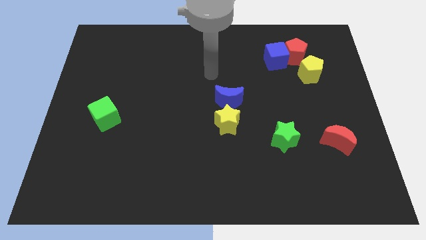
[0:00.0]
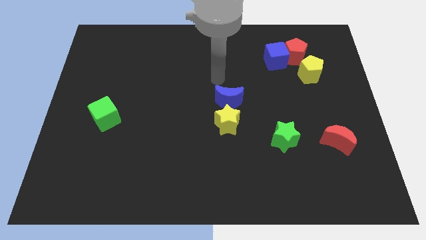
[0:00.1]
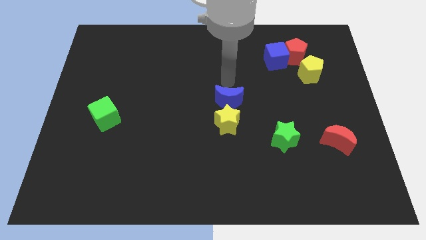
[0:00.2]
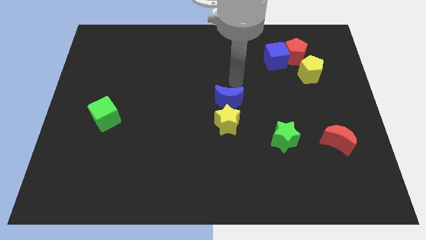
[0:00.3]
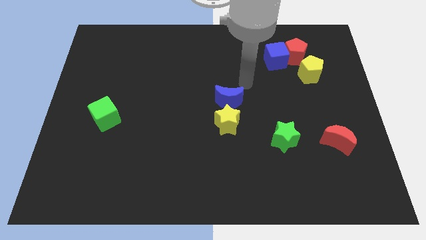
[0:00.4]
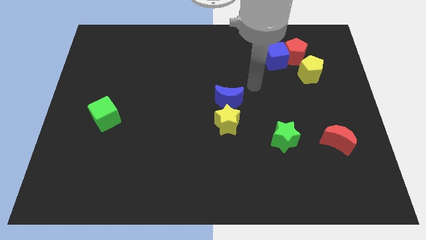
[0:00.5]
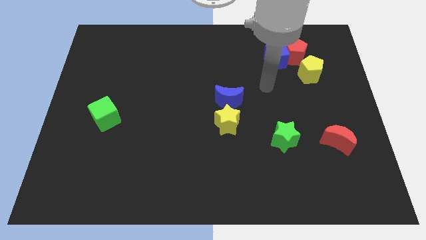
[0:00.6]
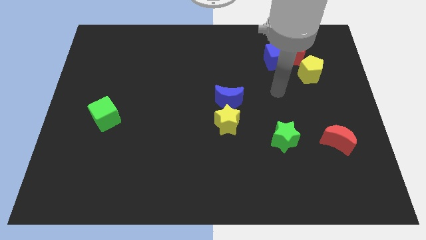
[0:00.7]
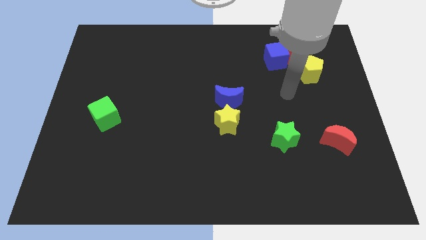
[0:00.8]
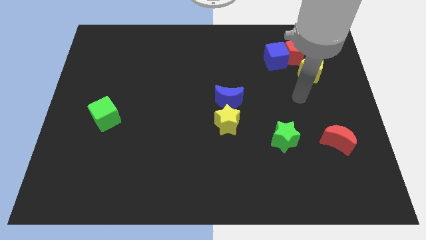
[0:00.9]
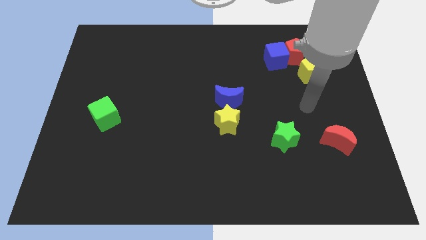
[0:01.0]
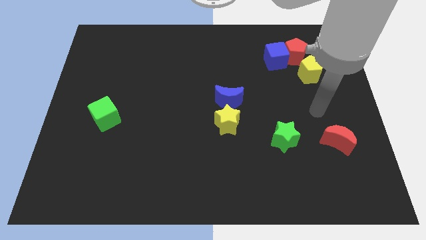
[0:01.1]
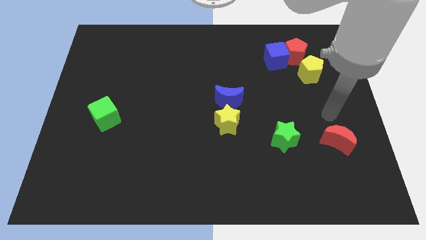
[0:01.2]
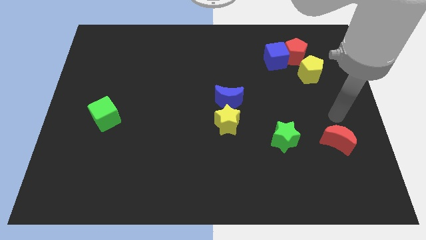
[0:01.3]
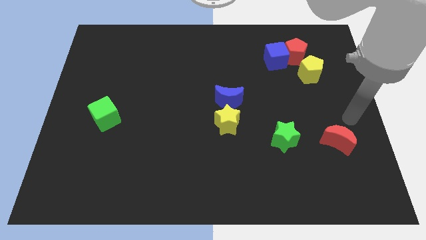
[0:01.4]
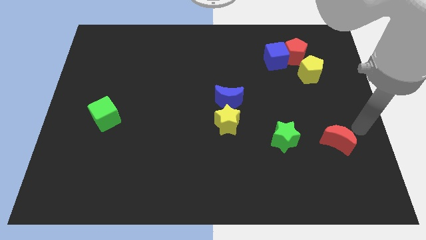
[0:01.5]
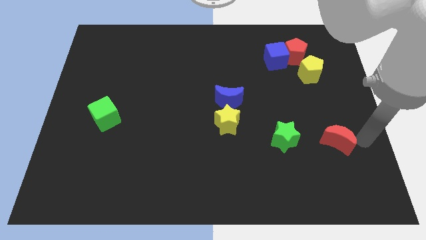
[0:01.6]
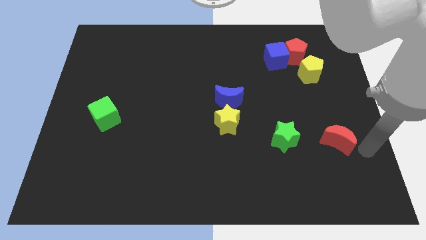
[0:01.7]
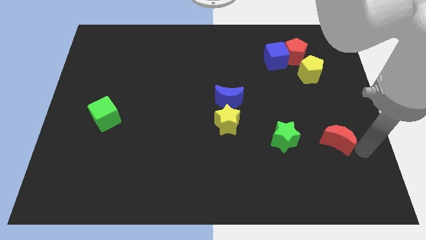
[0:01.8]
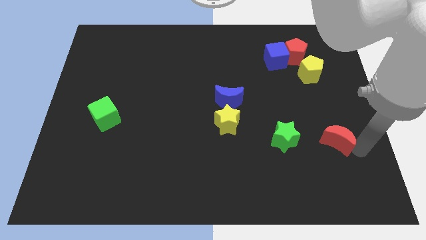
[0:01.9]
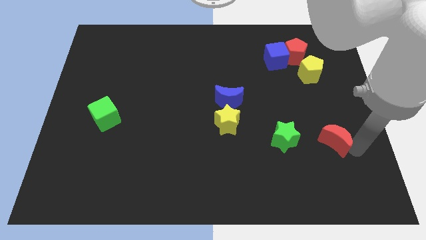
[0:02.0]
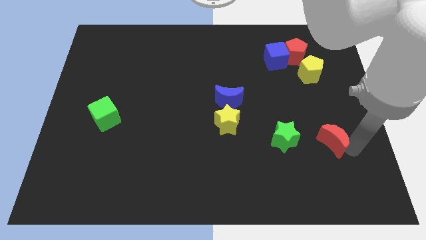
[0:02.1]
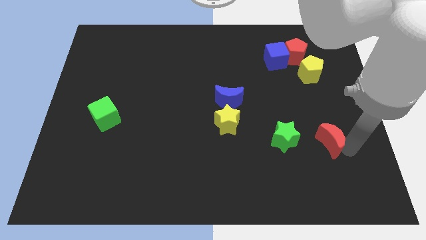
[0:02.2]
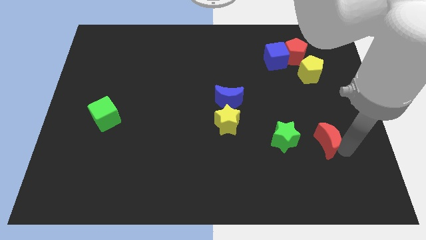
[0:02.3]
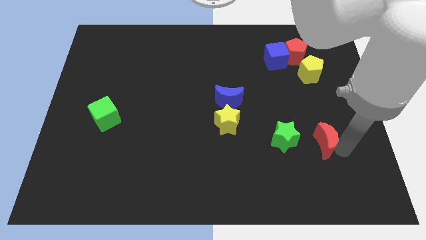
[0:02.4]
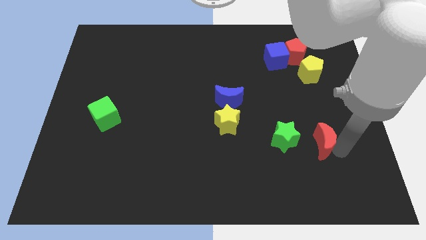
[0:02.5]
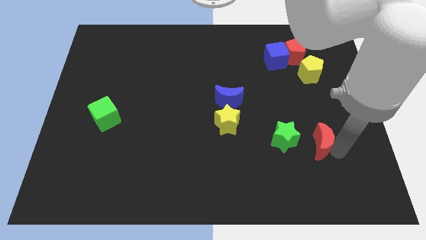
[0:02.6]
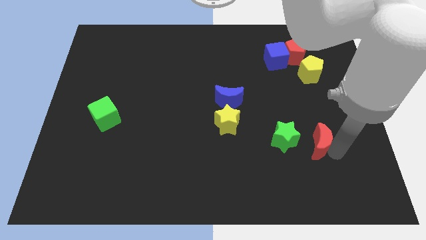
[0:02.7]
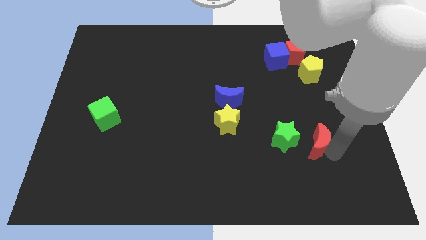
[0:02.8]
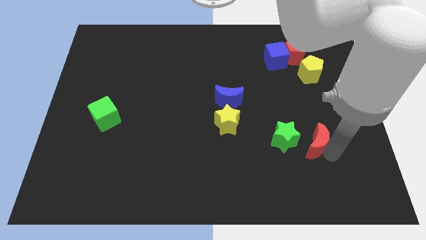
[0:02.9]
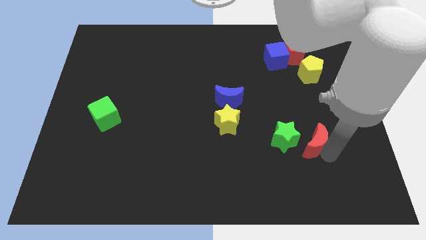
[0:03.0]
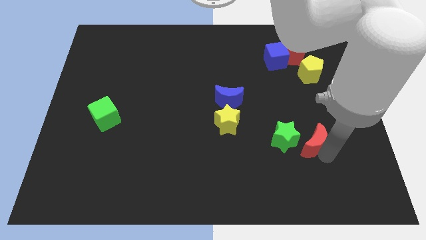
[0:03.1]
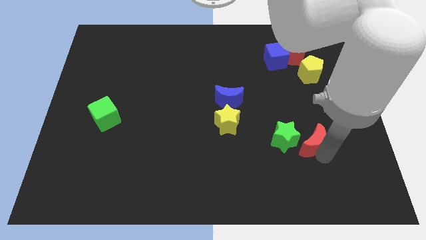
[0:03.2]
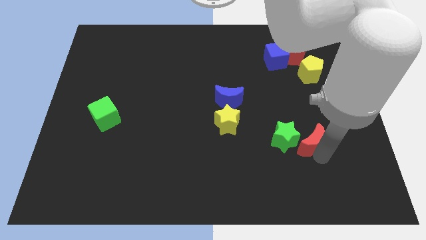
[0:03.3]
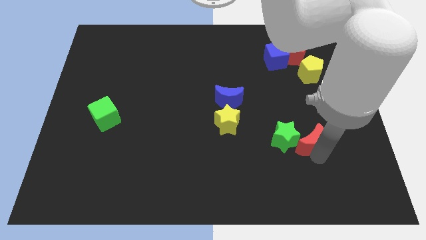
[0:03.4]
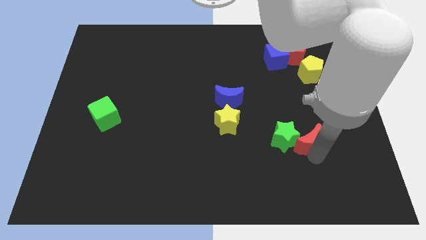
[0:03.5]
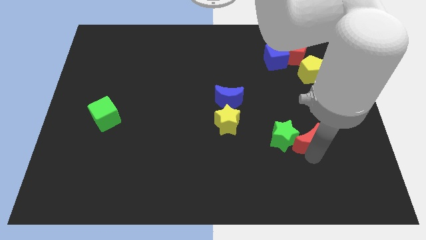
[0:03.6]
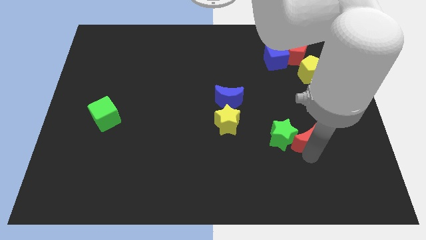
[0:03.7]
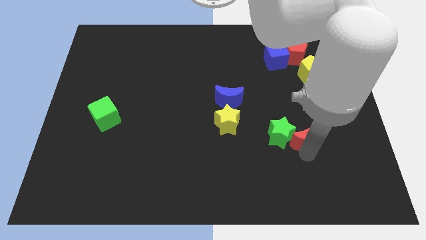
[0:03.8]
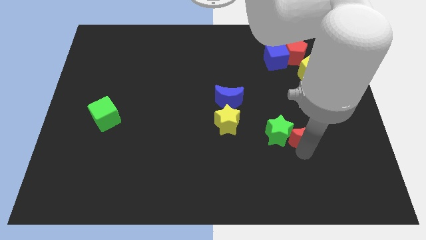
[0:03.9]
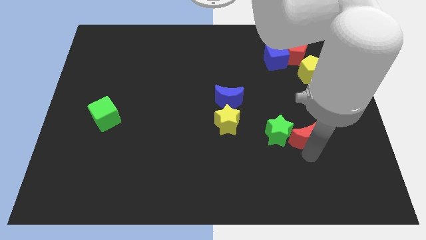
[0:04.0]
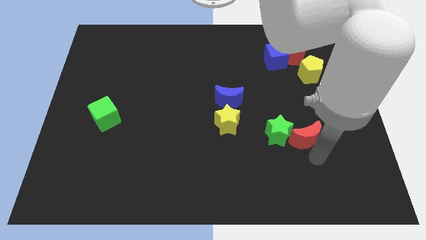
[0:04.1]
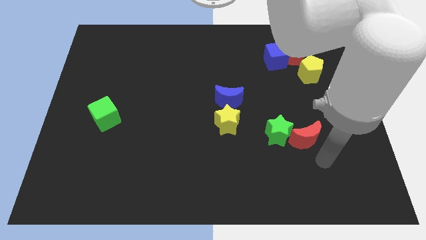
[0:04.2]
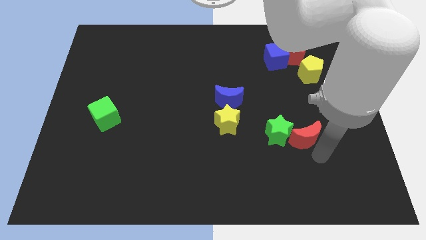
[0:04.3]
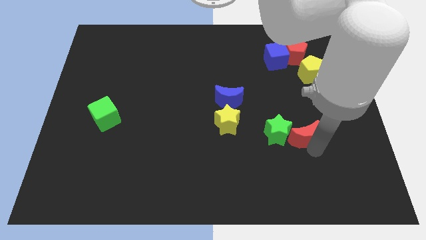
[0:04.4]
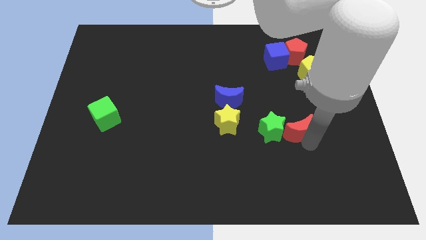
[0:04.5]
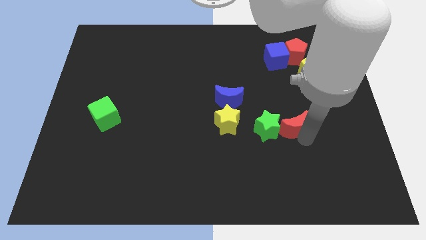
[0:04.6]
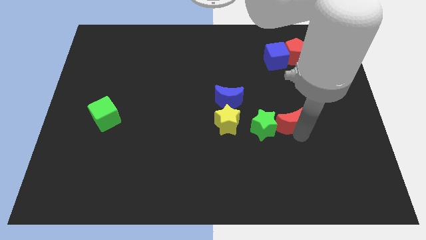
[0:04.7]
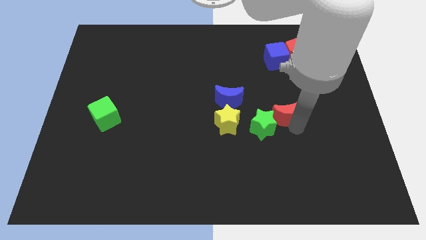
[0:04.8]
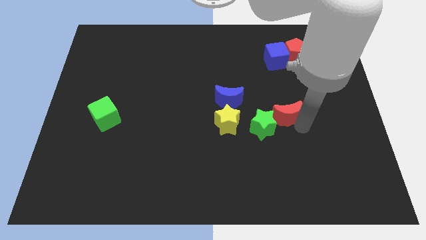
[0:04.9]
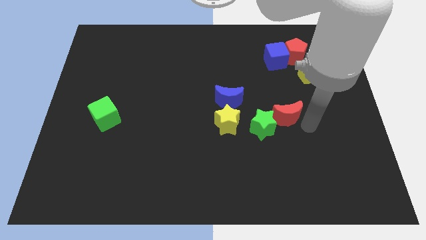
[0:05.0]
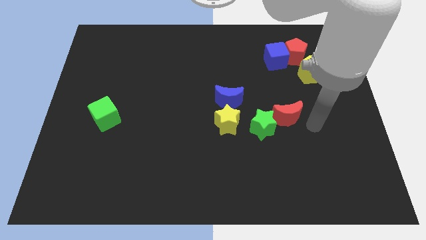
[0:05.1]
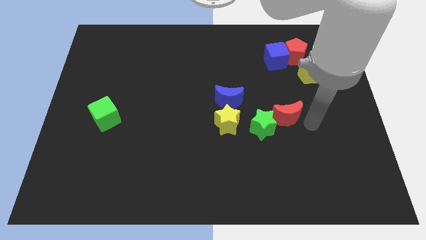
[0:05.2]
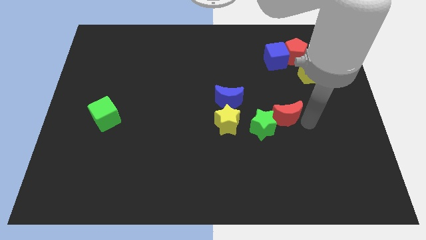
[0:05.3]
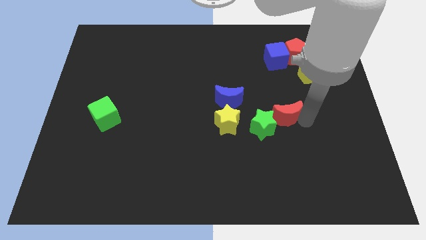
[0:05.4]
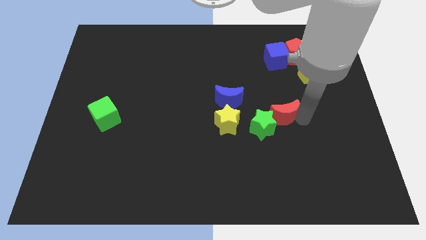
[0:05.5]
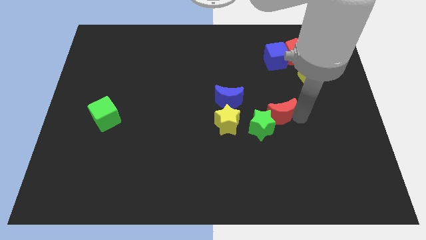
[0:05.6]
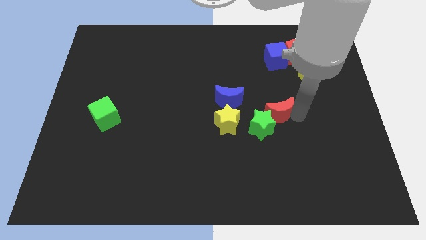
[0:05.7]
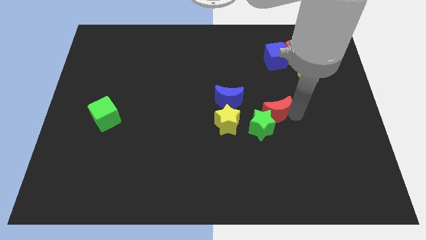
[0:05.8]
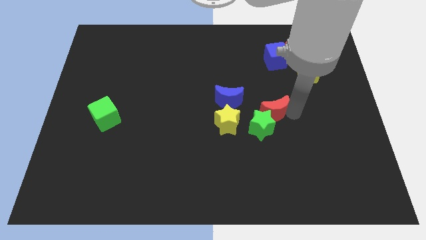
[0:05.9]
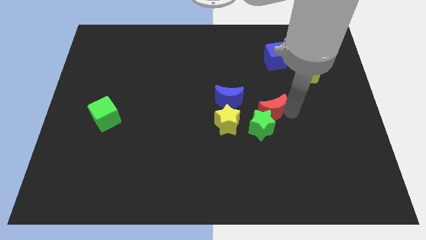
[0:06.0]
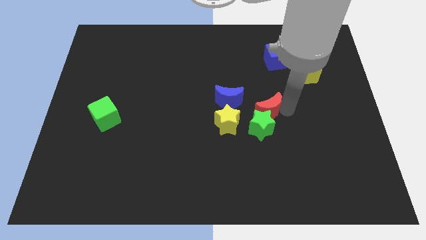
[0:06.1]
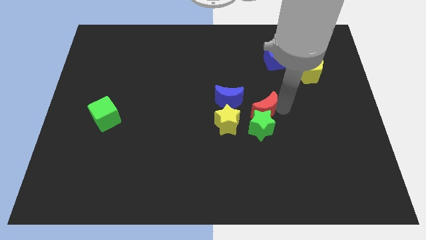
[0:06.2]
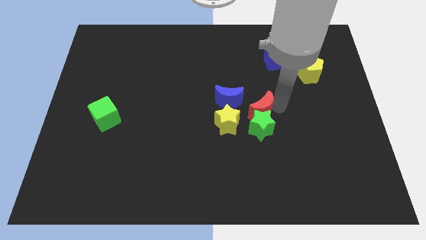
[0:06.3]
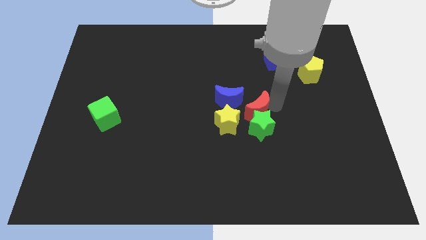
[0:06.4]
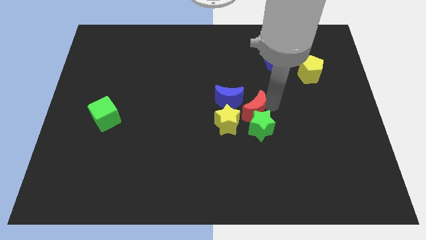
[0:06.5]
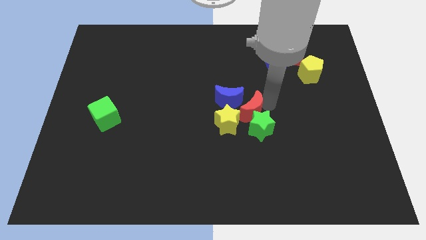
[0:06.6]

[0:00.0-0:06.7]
put the red moon to the blue moon

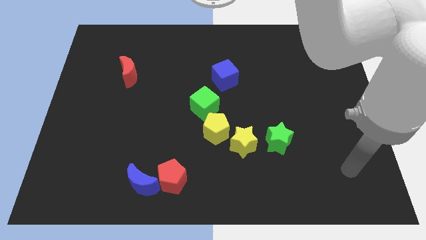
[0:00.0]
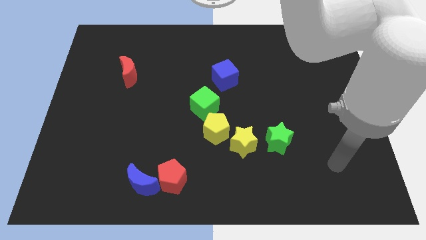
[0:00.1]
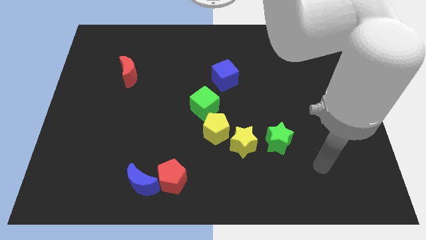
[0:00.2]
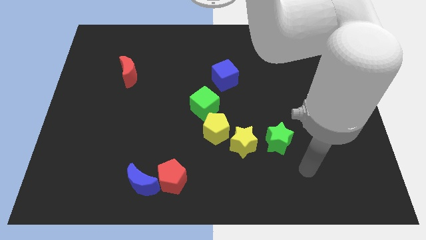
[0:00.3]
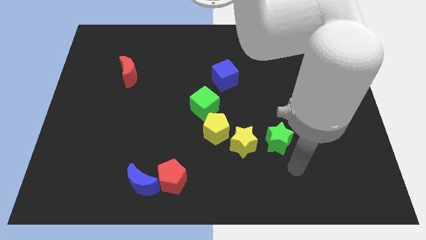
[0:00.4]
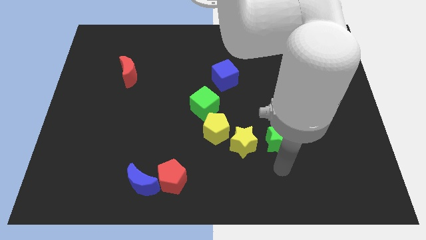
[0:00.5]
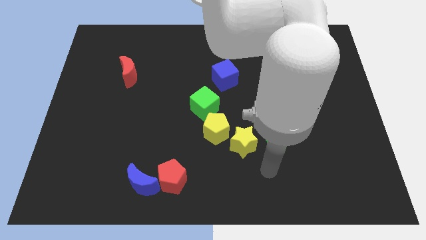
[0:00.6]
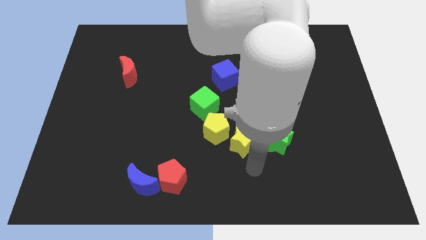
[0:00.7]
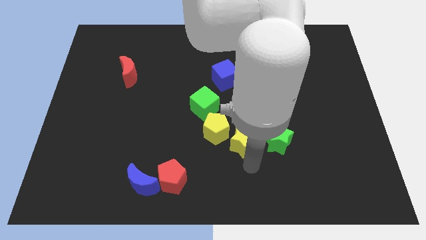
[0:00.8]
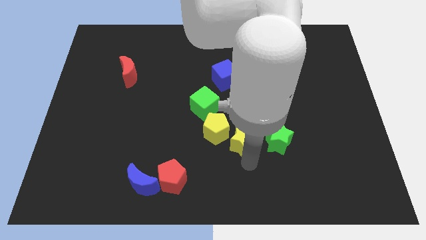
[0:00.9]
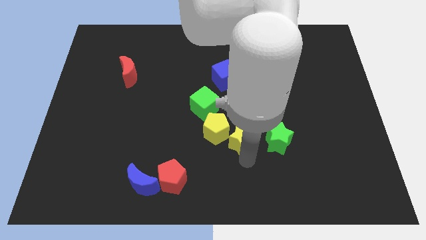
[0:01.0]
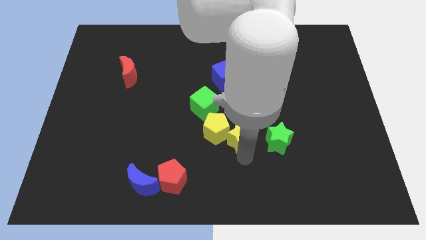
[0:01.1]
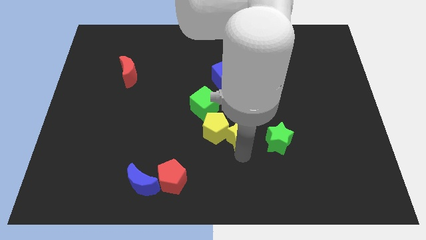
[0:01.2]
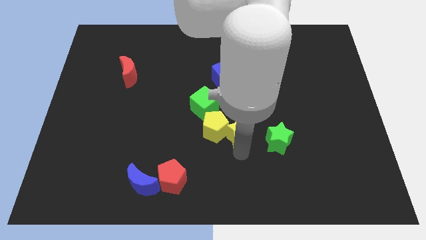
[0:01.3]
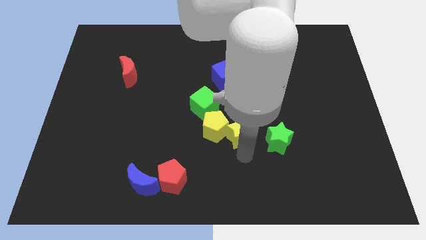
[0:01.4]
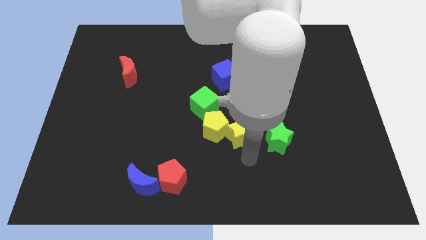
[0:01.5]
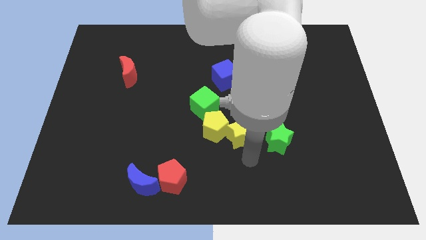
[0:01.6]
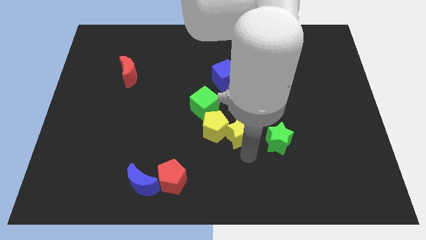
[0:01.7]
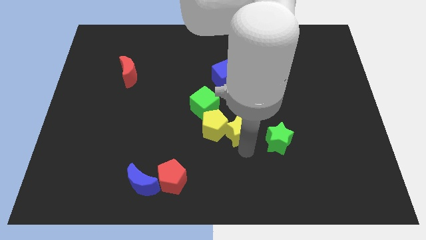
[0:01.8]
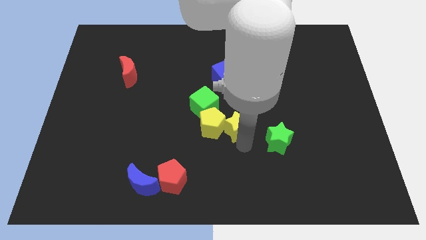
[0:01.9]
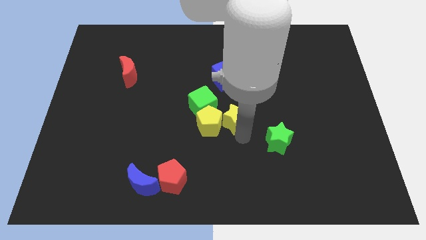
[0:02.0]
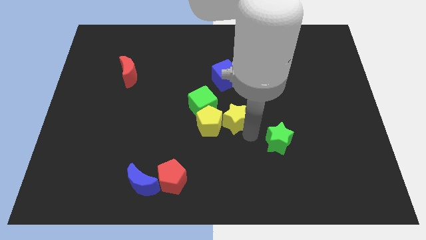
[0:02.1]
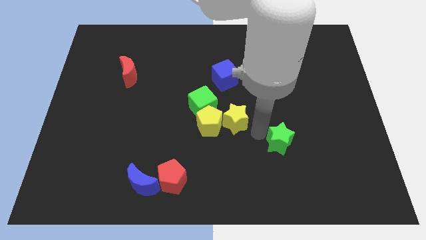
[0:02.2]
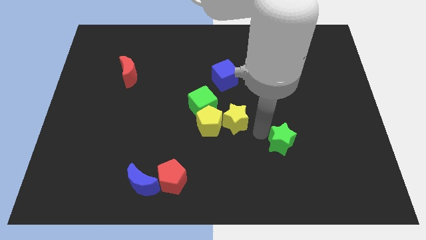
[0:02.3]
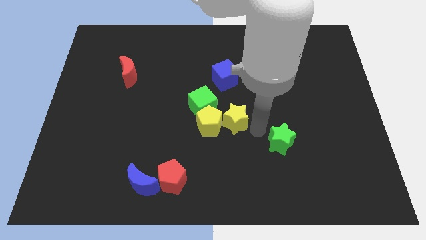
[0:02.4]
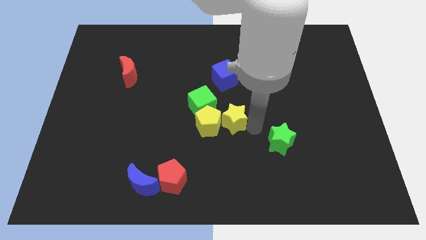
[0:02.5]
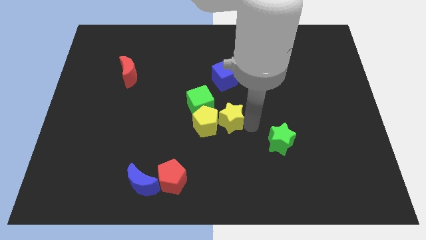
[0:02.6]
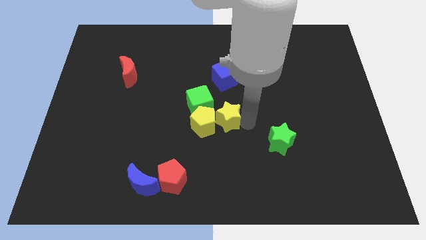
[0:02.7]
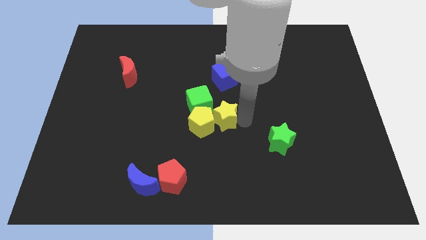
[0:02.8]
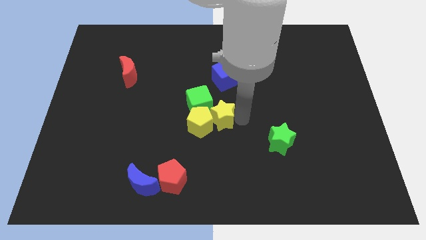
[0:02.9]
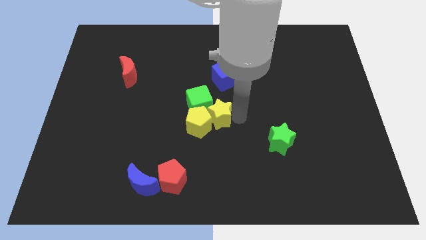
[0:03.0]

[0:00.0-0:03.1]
push the yellow star to the green cube
